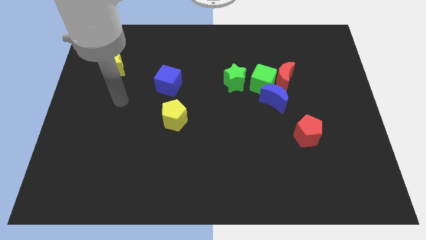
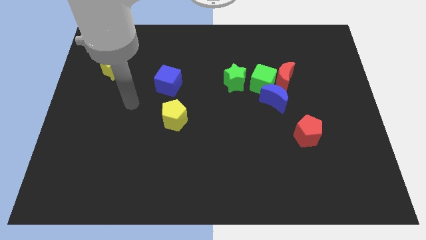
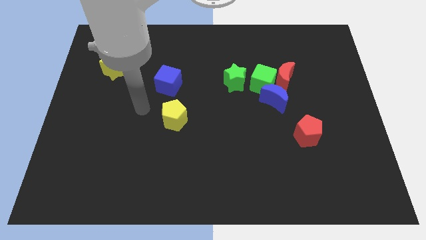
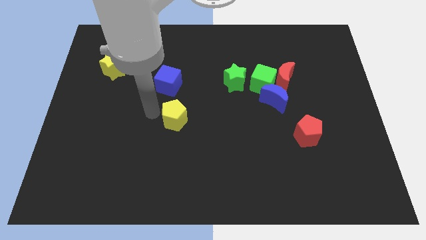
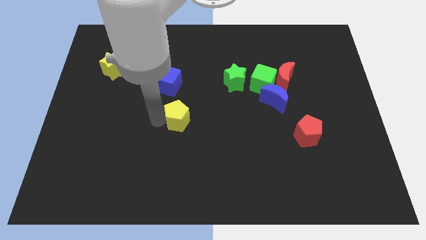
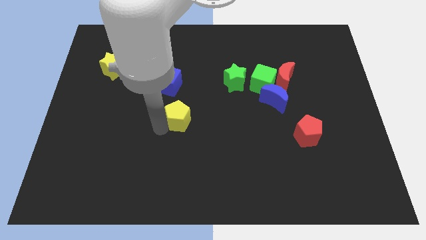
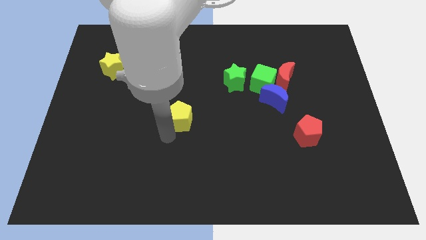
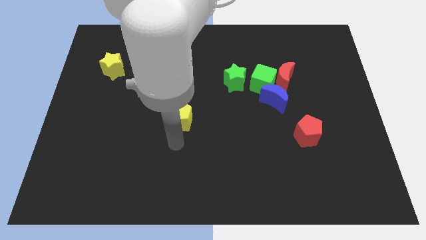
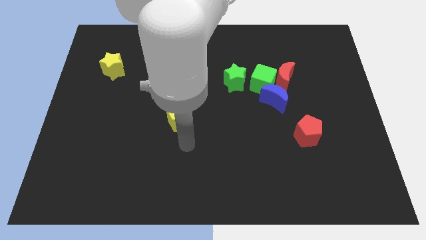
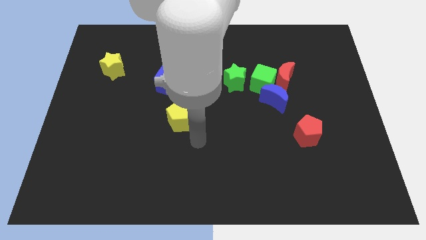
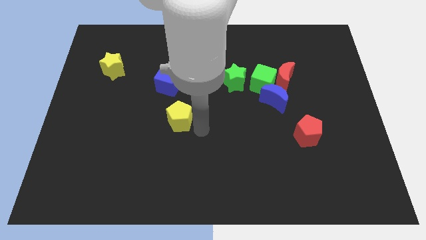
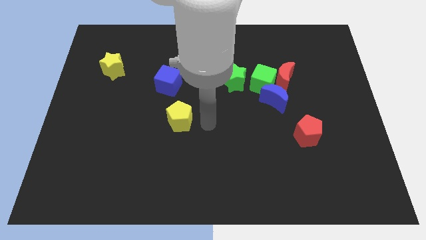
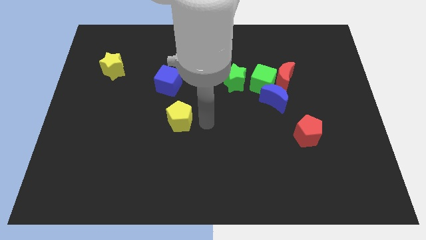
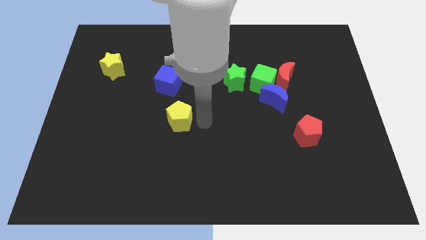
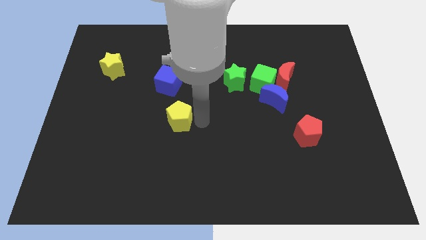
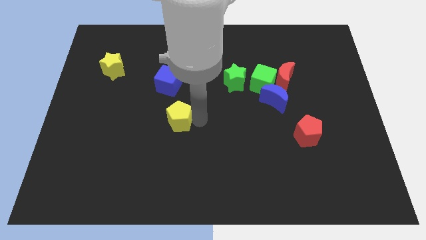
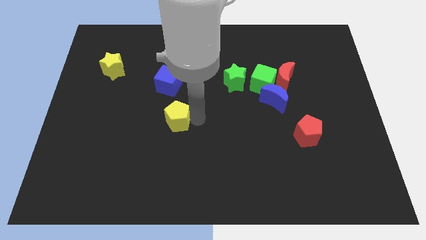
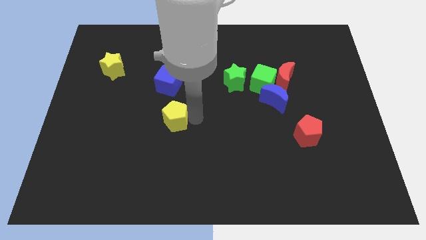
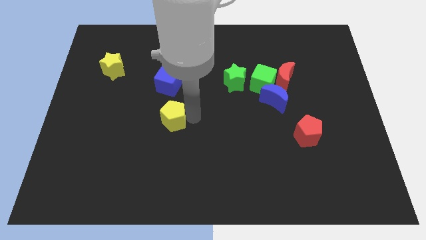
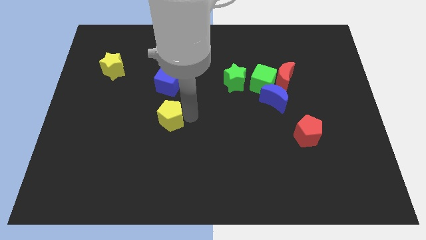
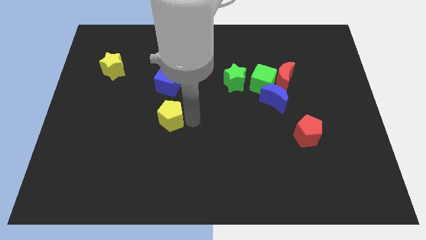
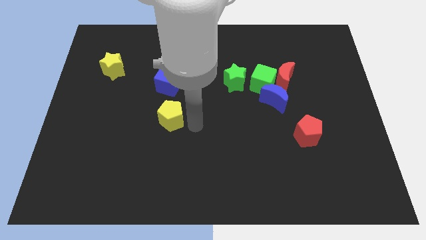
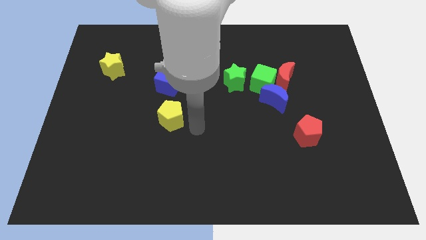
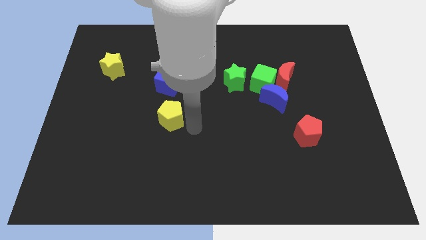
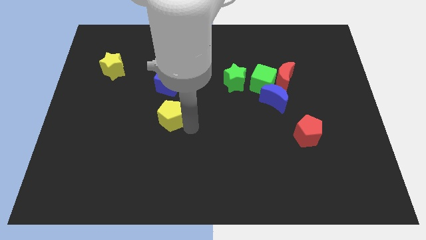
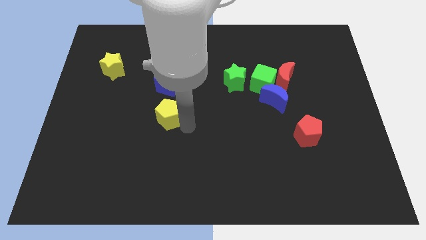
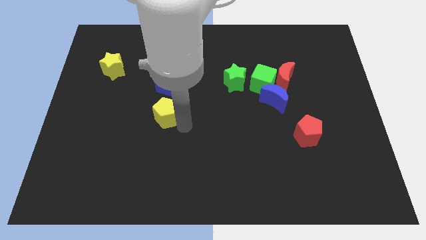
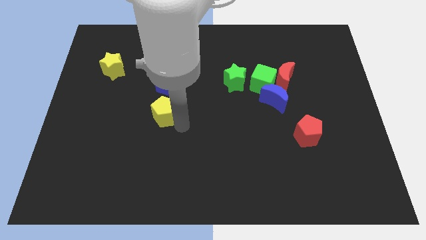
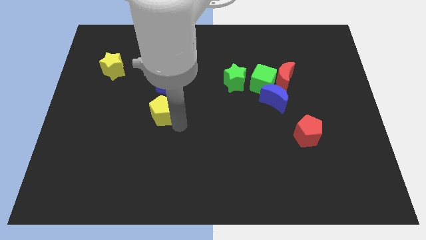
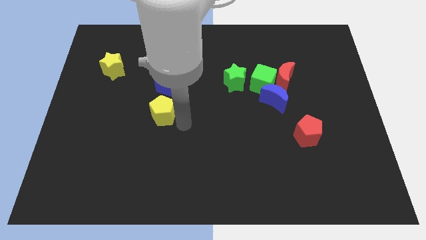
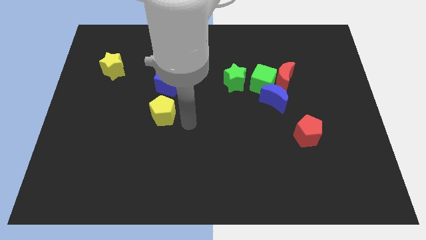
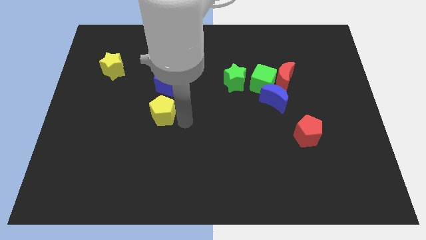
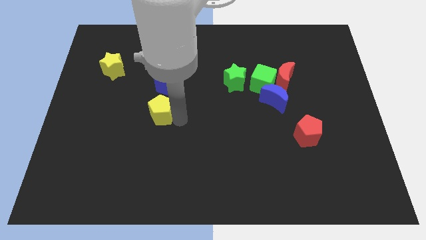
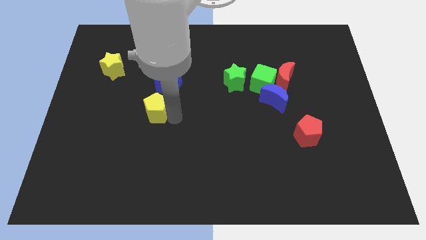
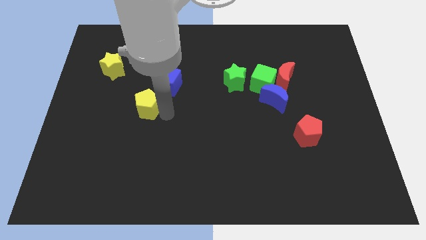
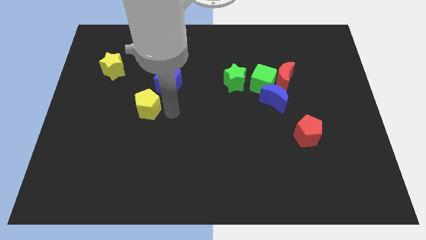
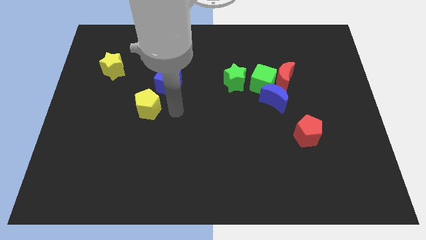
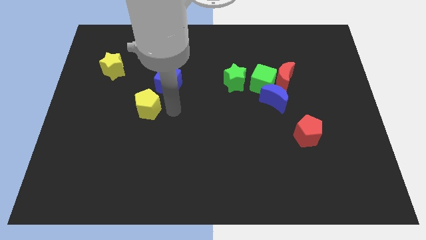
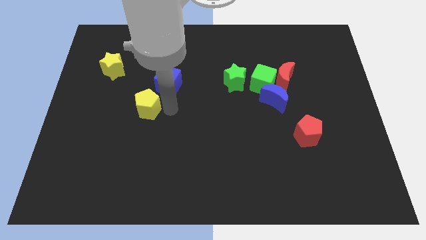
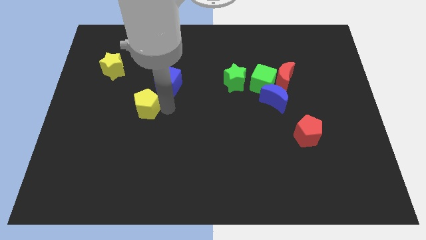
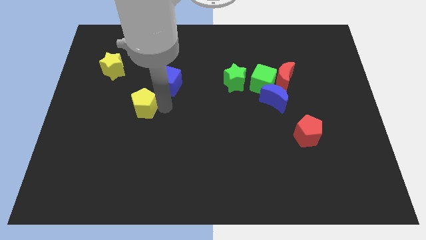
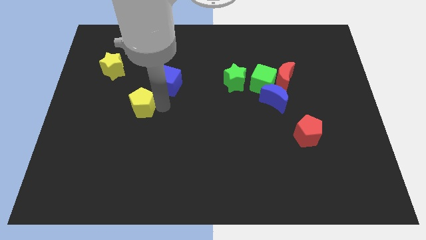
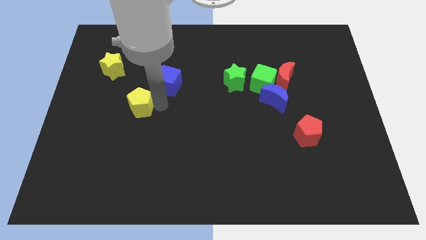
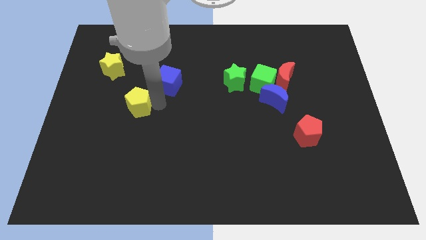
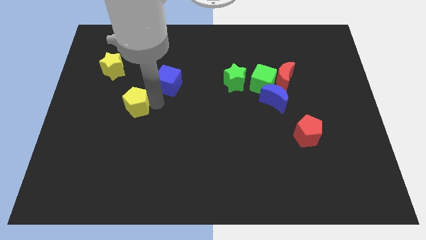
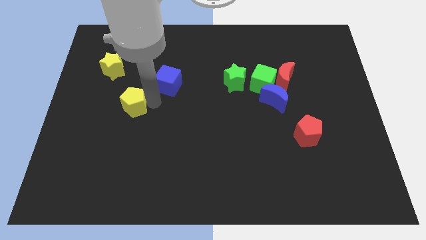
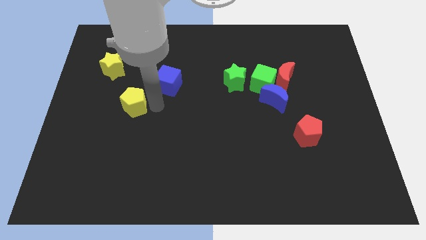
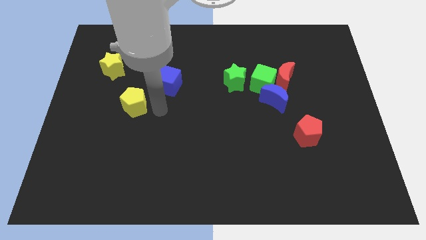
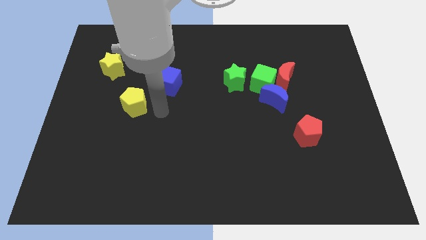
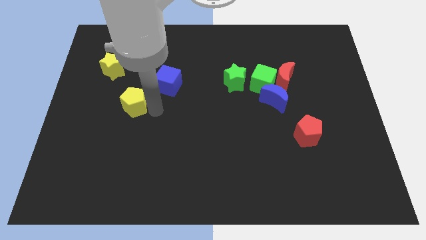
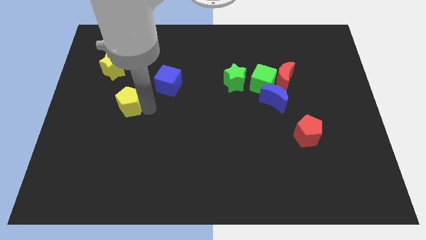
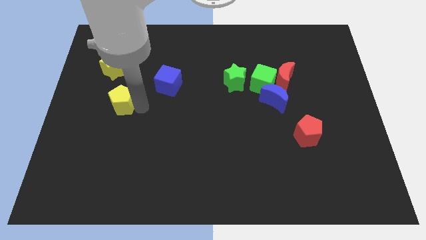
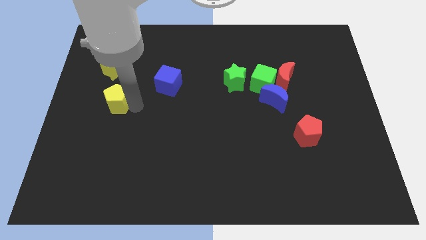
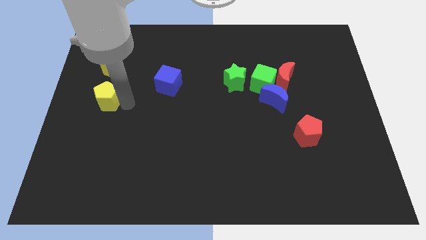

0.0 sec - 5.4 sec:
push the yellow pentagon to the center left

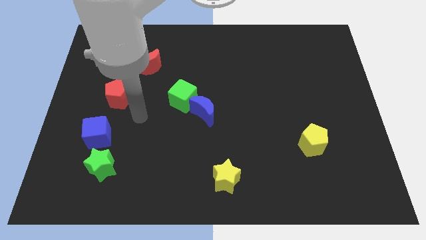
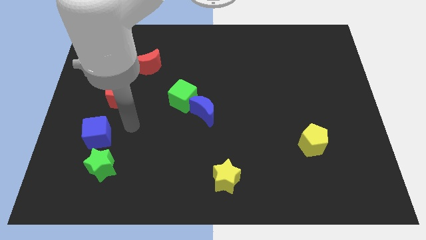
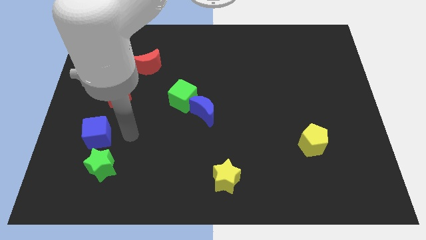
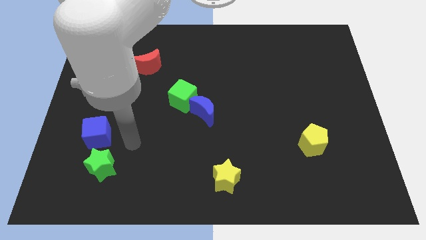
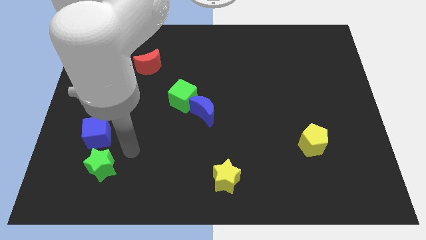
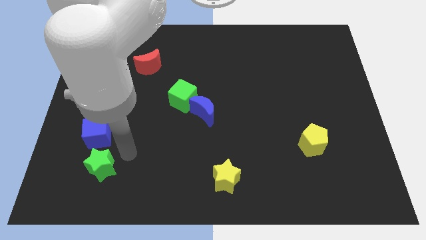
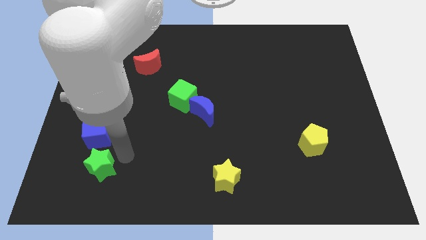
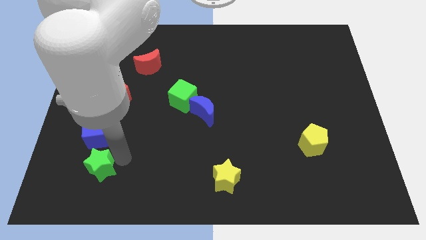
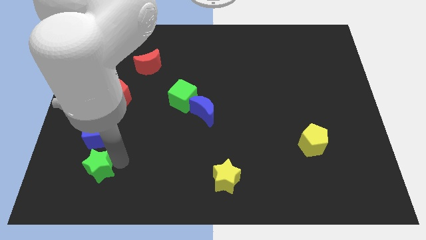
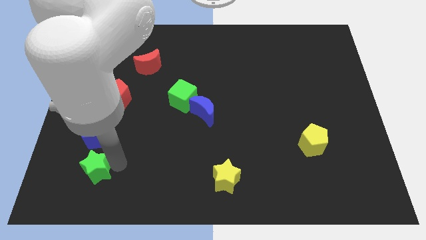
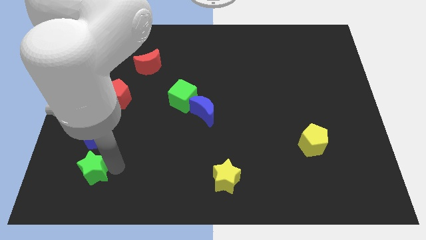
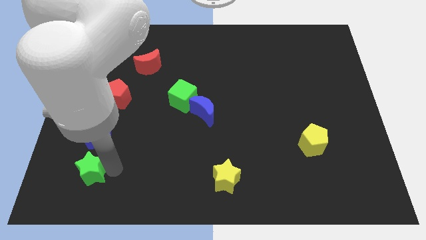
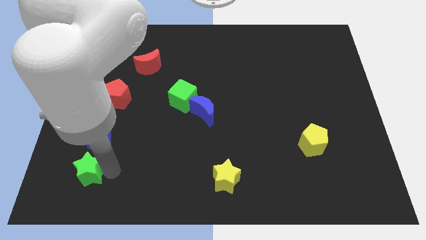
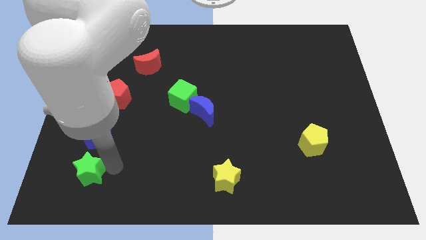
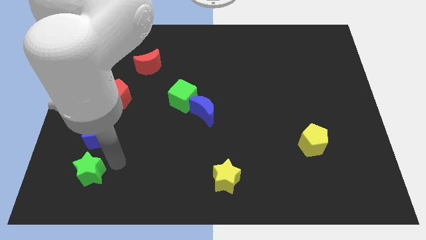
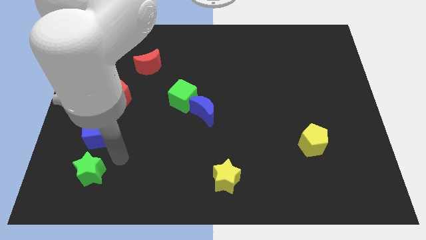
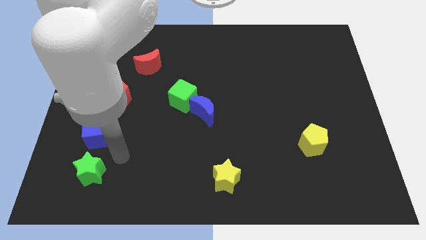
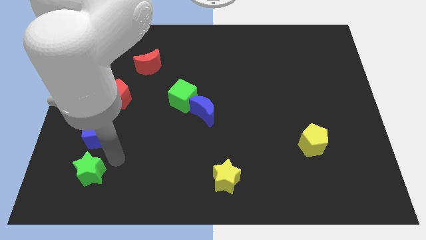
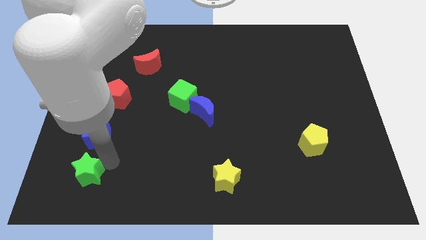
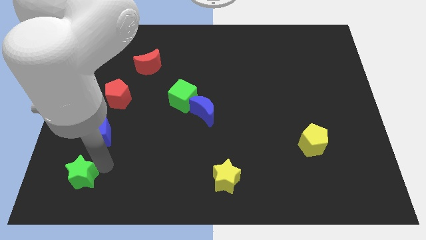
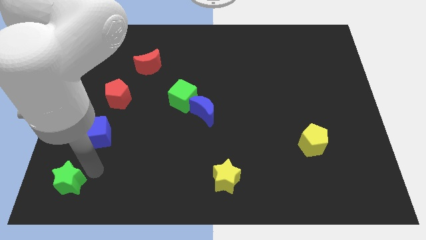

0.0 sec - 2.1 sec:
slide the green star to the bottom left of the board
